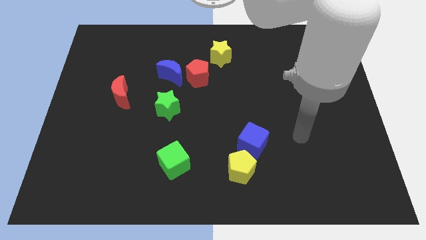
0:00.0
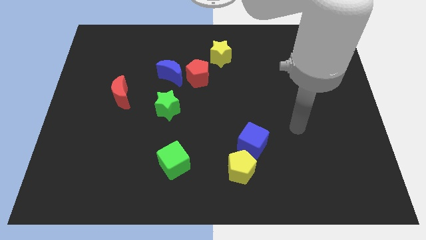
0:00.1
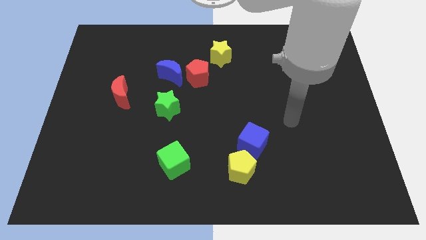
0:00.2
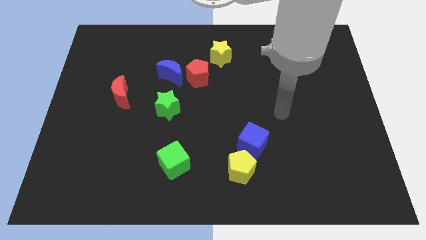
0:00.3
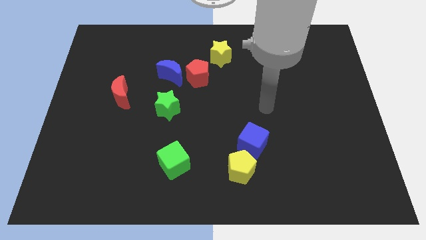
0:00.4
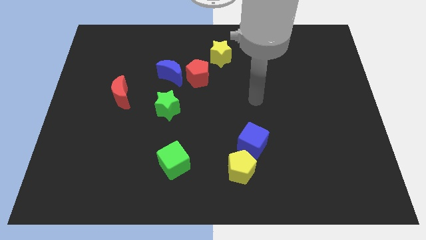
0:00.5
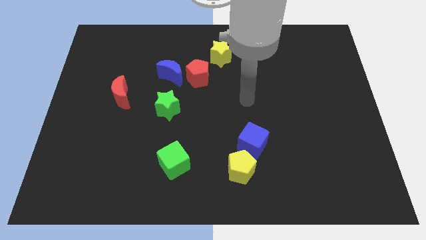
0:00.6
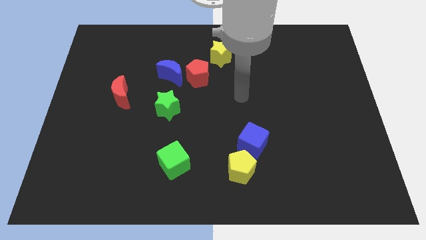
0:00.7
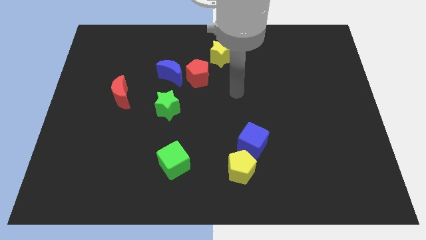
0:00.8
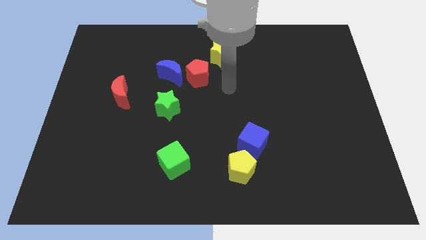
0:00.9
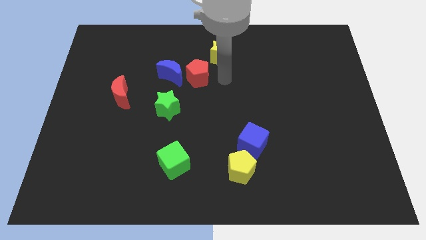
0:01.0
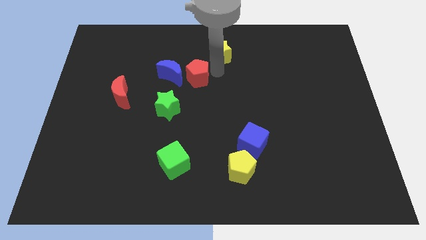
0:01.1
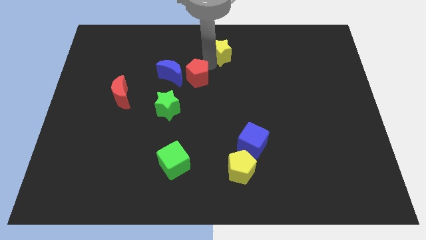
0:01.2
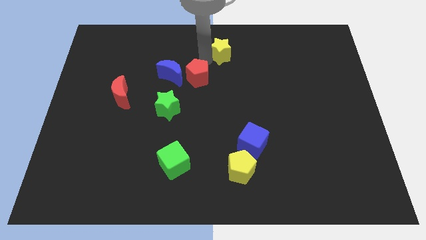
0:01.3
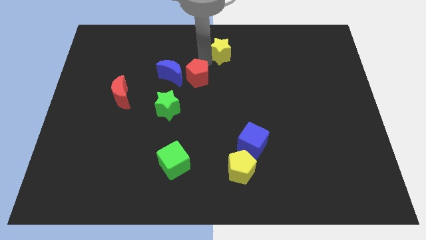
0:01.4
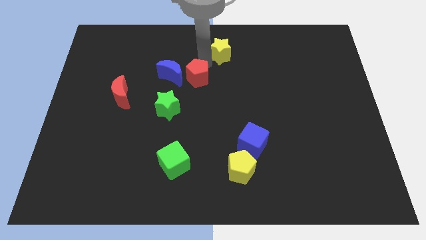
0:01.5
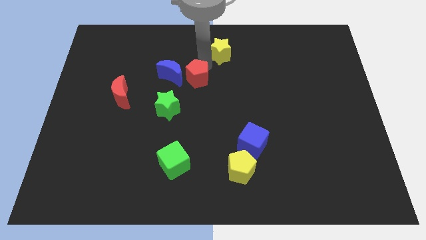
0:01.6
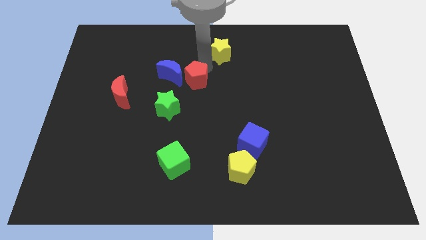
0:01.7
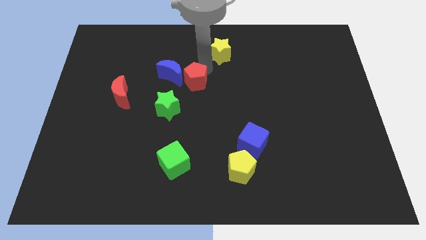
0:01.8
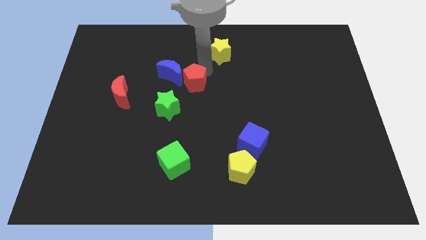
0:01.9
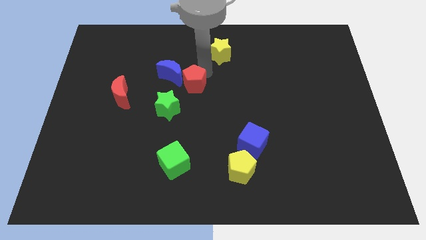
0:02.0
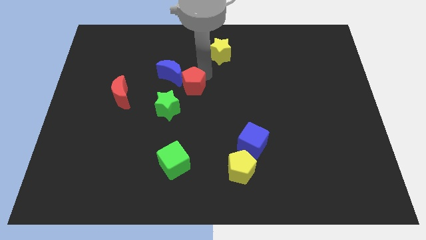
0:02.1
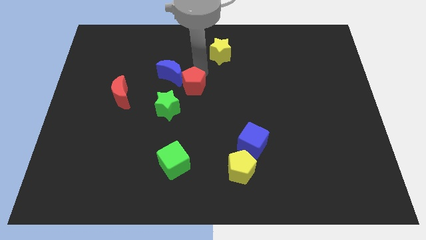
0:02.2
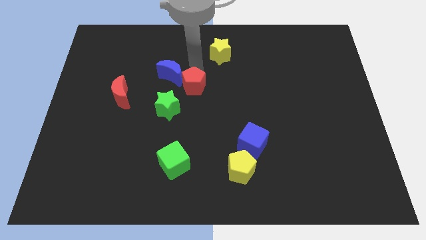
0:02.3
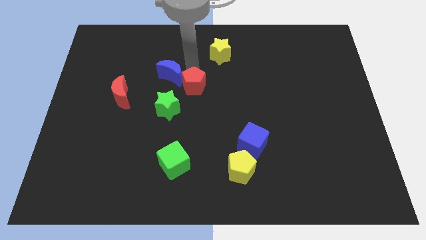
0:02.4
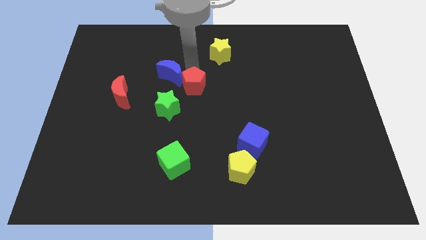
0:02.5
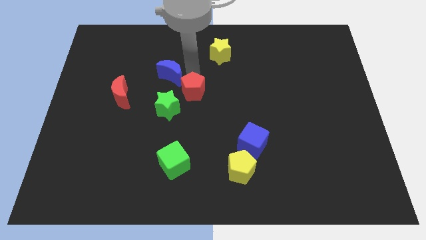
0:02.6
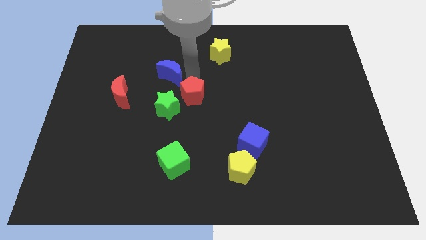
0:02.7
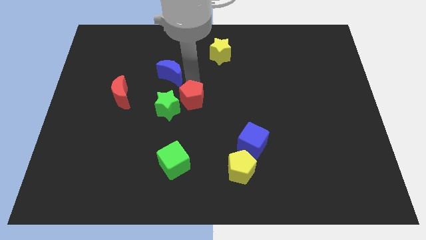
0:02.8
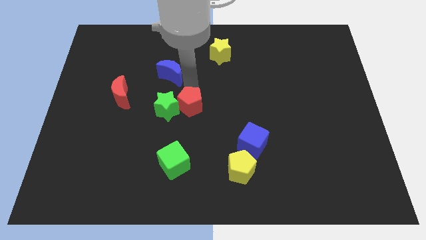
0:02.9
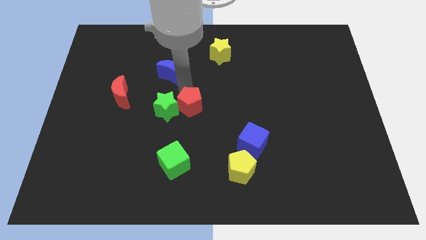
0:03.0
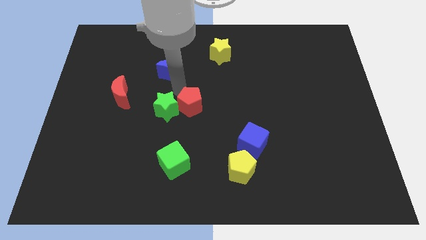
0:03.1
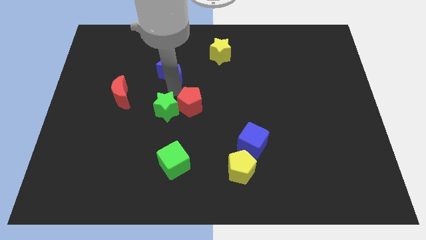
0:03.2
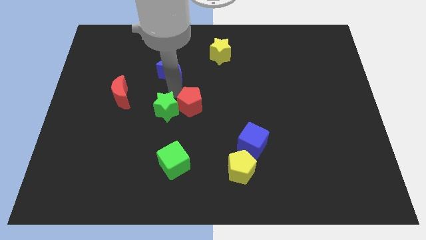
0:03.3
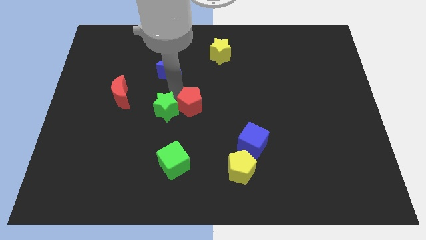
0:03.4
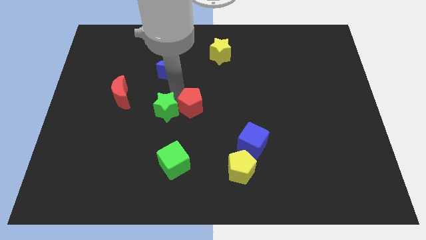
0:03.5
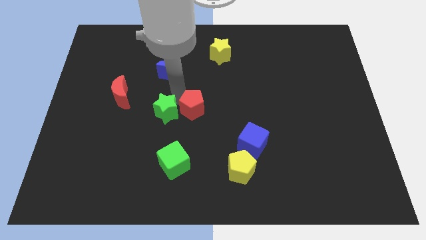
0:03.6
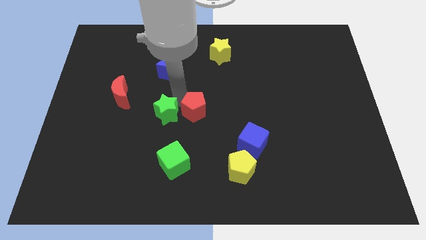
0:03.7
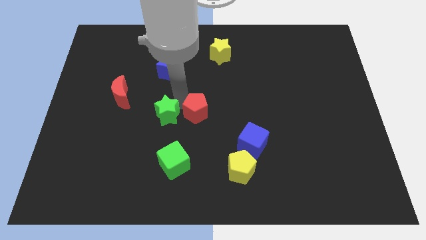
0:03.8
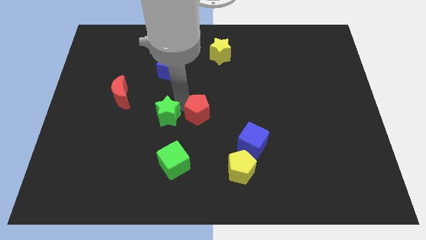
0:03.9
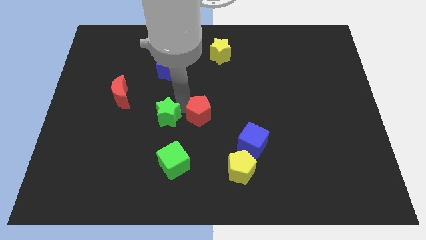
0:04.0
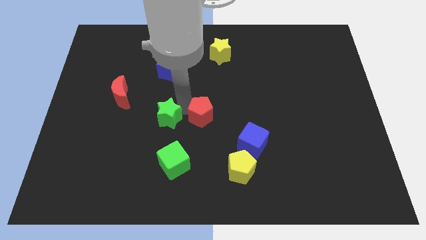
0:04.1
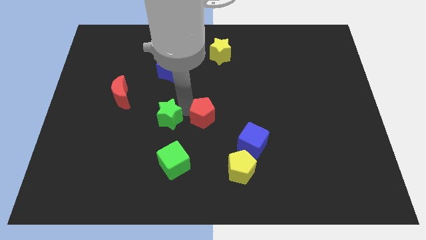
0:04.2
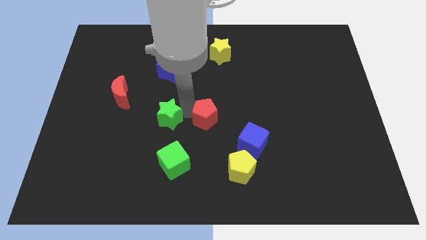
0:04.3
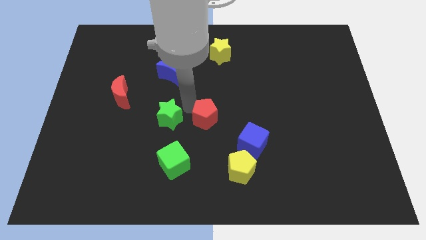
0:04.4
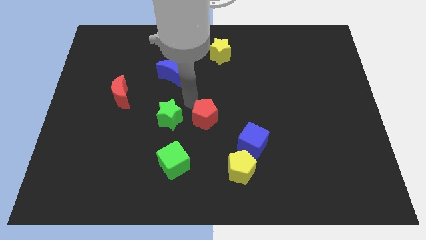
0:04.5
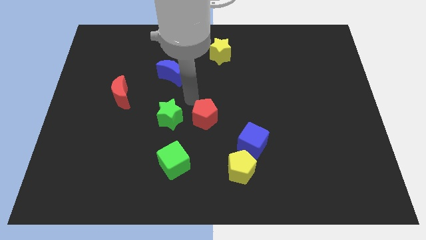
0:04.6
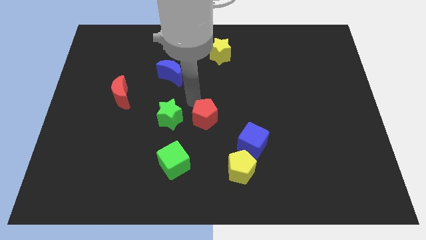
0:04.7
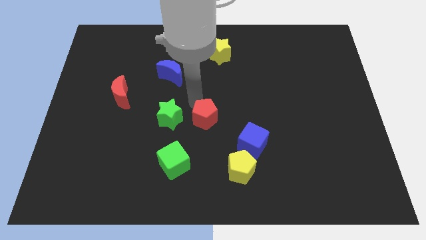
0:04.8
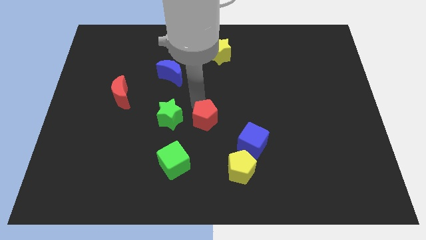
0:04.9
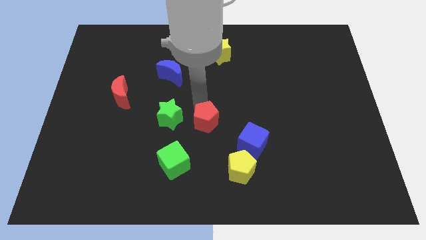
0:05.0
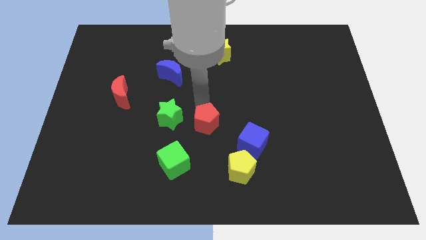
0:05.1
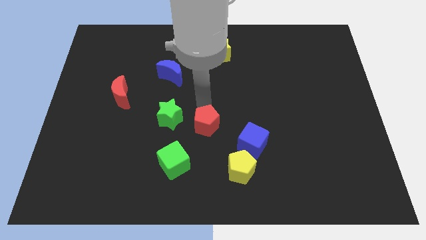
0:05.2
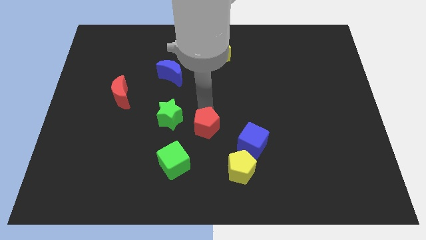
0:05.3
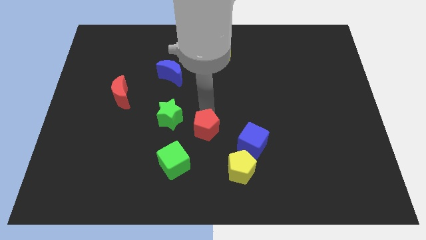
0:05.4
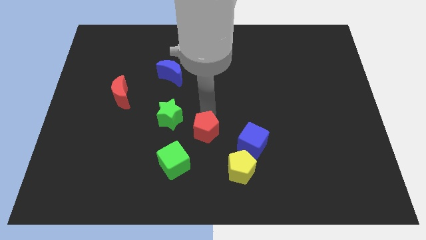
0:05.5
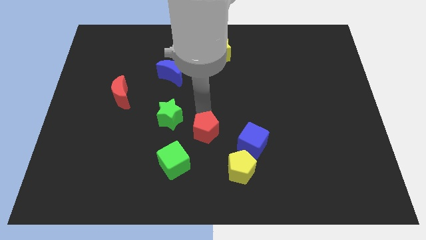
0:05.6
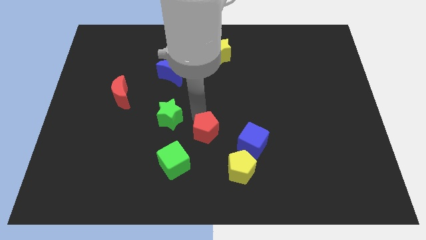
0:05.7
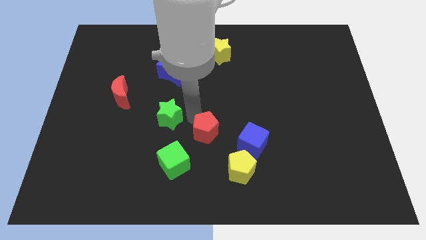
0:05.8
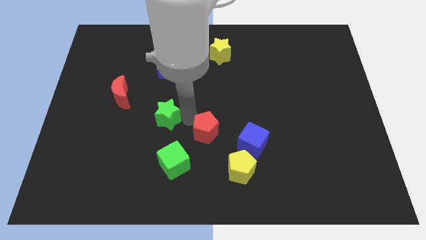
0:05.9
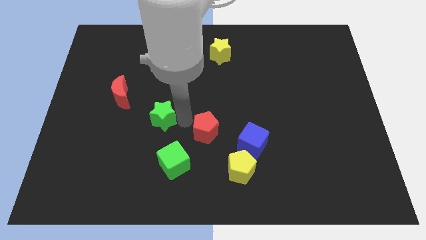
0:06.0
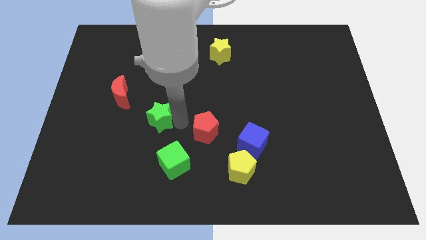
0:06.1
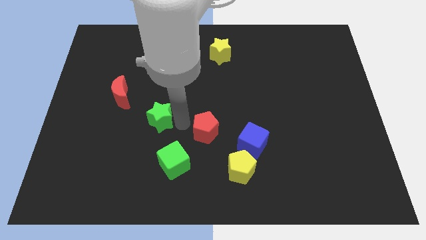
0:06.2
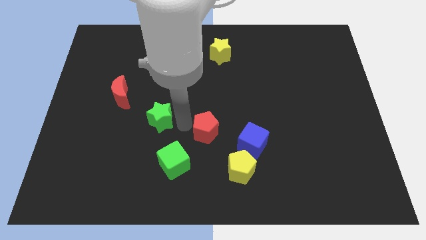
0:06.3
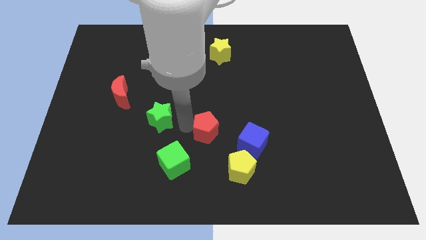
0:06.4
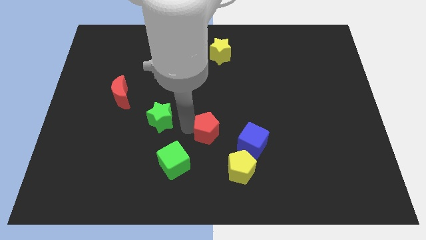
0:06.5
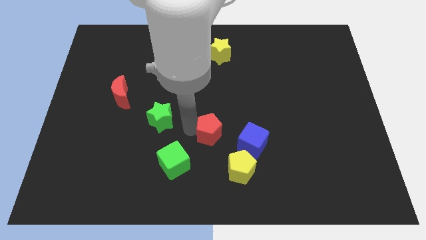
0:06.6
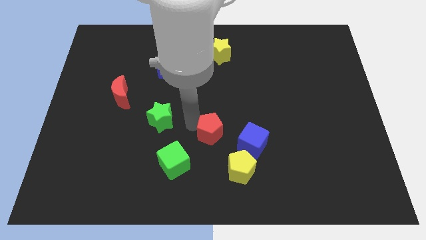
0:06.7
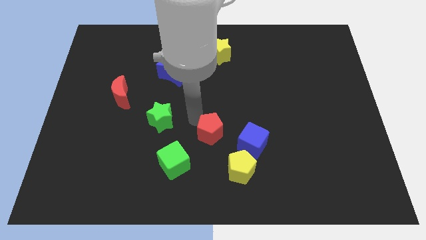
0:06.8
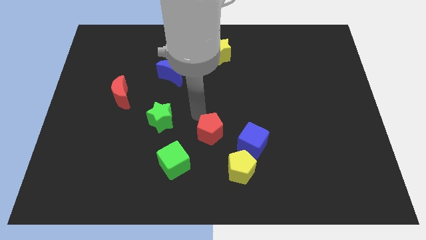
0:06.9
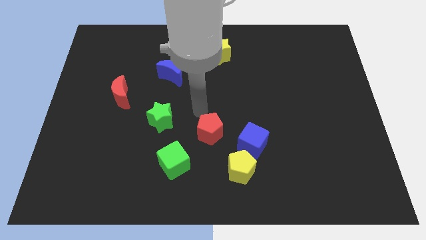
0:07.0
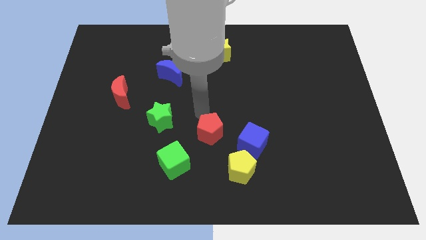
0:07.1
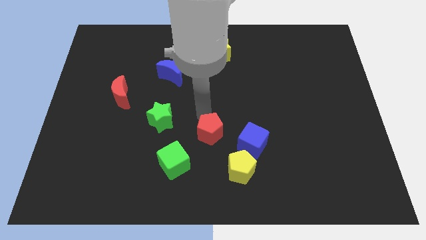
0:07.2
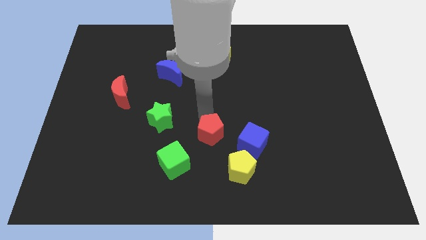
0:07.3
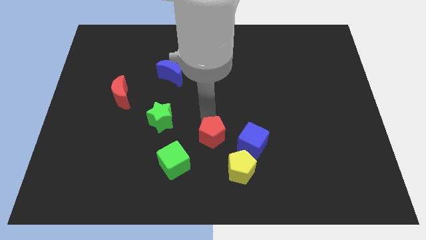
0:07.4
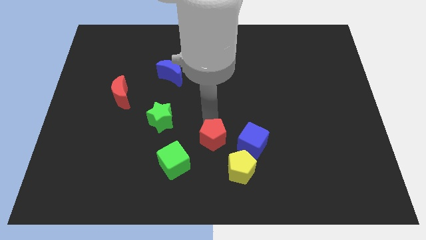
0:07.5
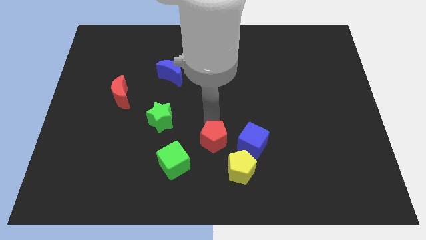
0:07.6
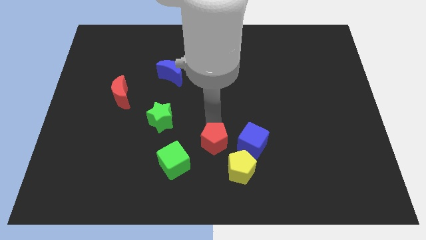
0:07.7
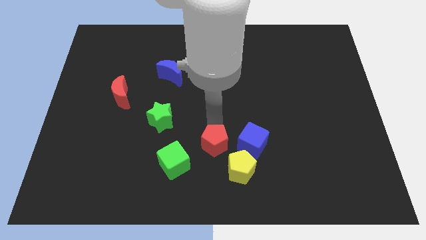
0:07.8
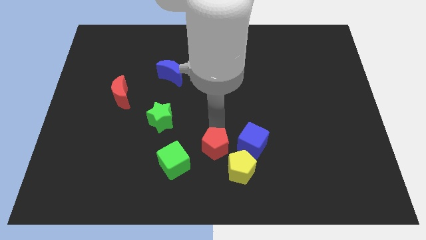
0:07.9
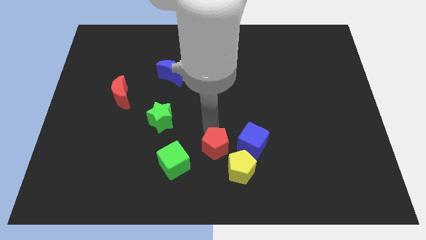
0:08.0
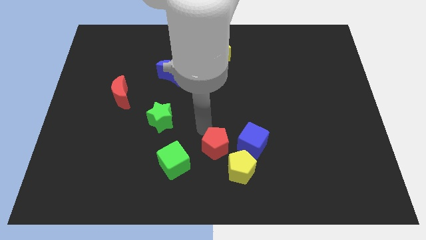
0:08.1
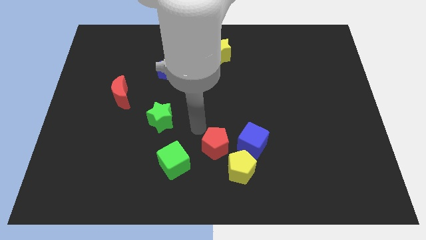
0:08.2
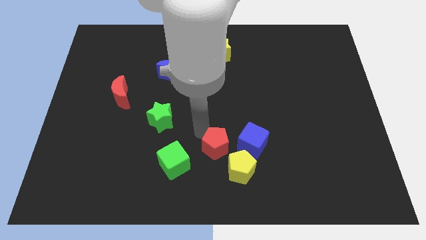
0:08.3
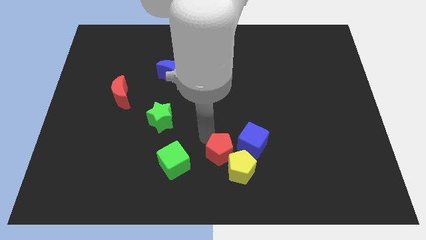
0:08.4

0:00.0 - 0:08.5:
push the red pentagon to the yellow pentagon
